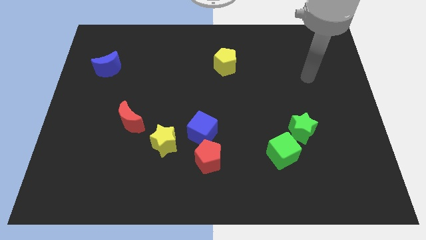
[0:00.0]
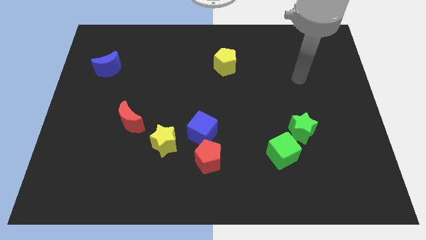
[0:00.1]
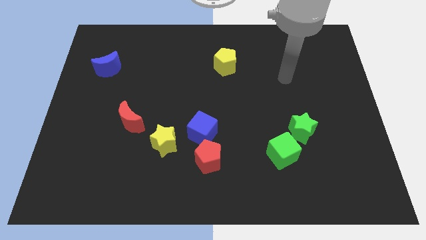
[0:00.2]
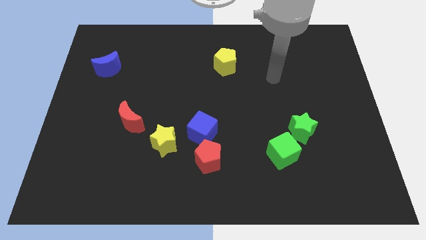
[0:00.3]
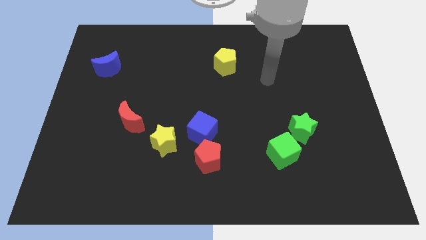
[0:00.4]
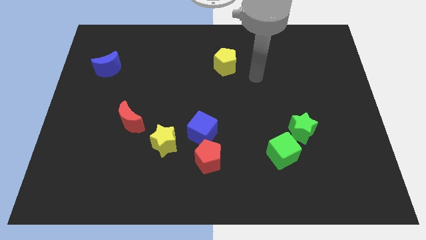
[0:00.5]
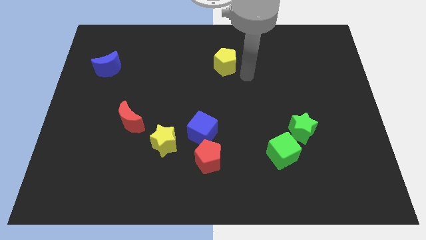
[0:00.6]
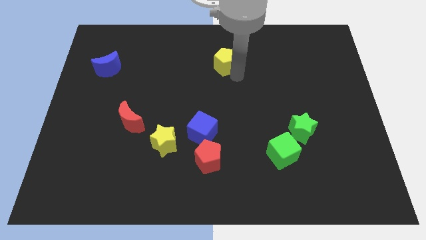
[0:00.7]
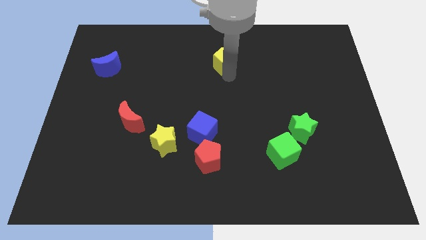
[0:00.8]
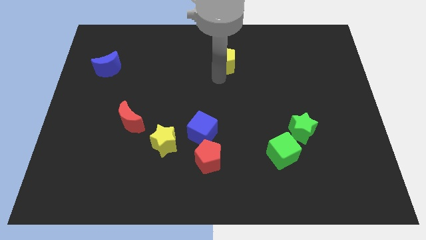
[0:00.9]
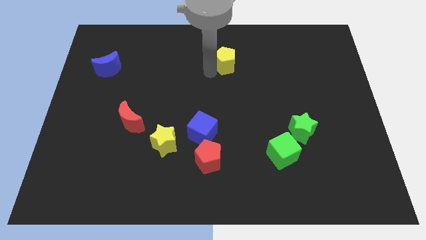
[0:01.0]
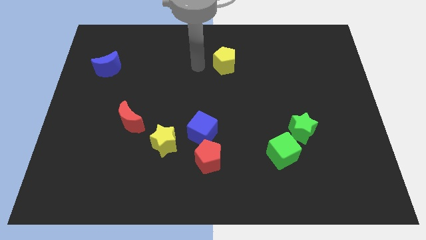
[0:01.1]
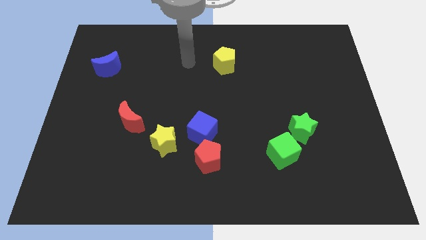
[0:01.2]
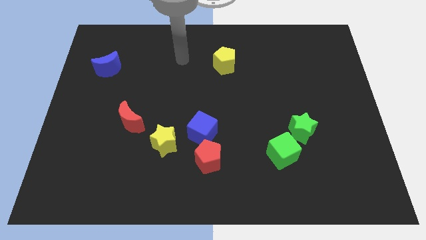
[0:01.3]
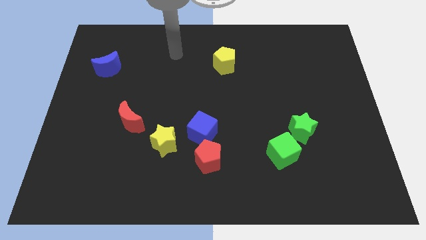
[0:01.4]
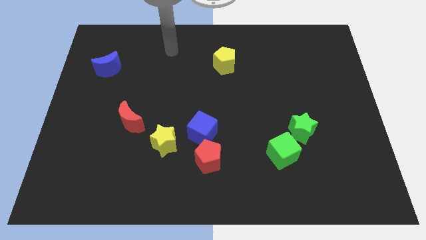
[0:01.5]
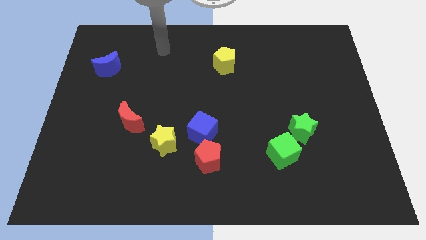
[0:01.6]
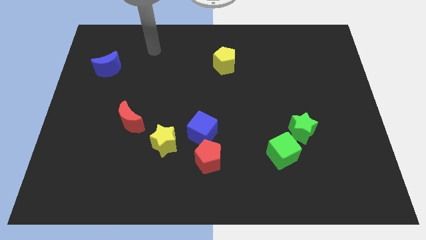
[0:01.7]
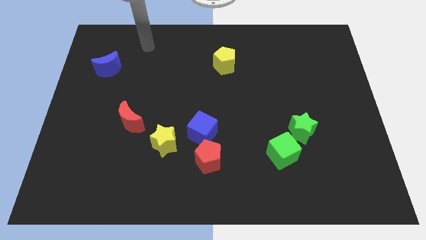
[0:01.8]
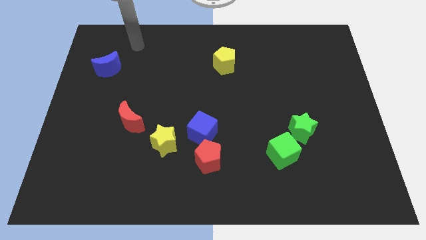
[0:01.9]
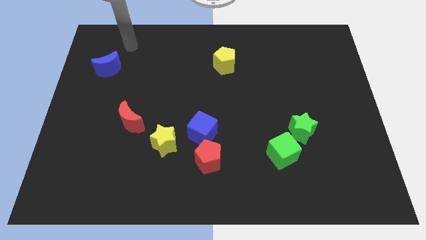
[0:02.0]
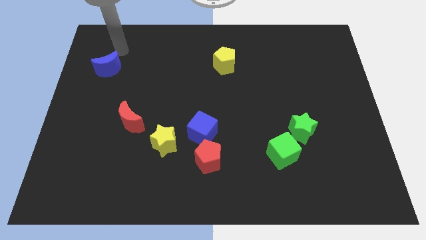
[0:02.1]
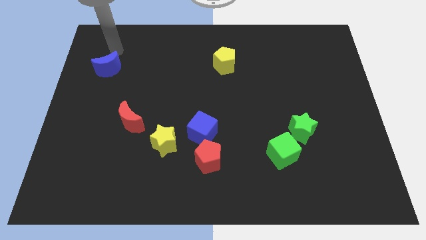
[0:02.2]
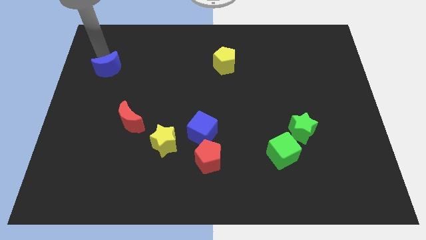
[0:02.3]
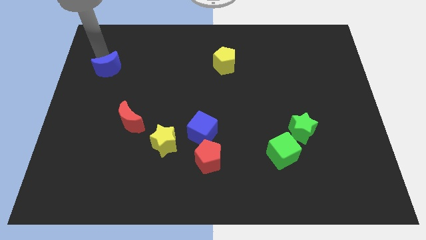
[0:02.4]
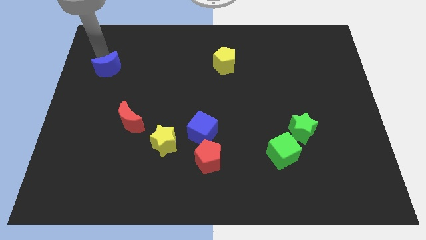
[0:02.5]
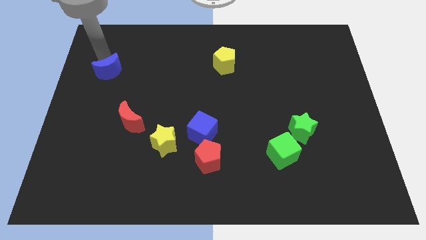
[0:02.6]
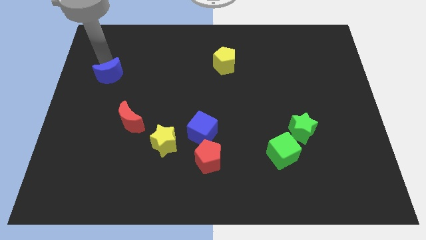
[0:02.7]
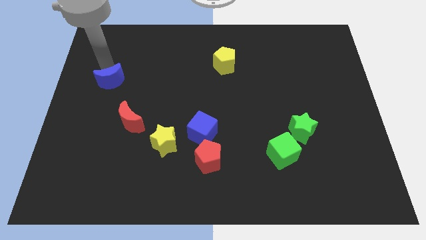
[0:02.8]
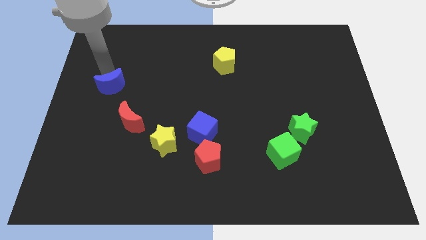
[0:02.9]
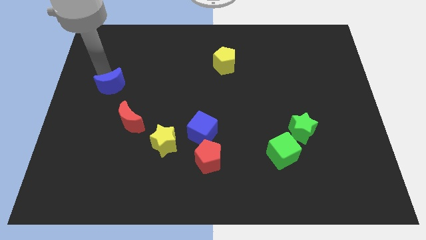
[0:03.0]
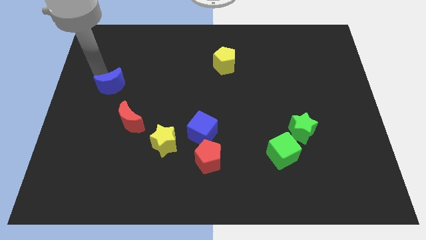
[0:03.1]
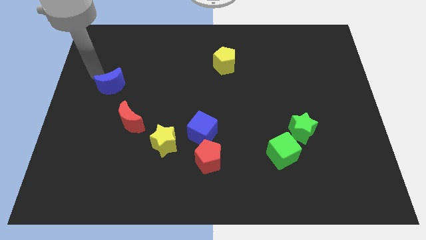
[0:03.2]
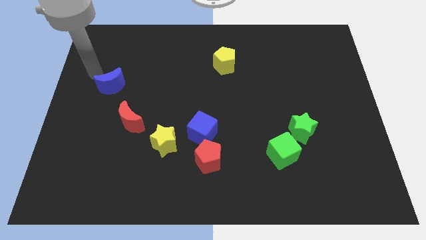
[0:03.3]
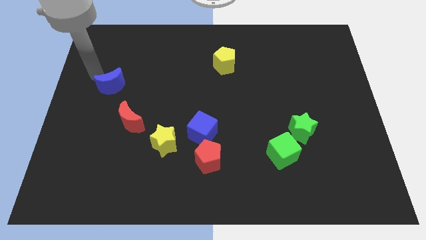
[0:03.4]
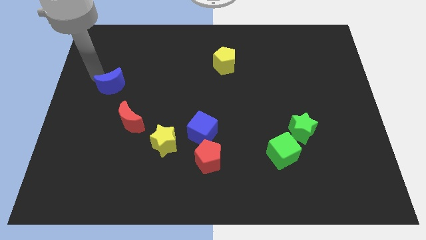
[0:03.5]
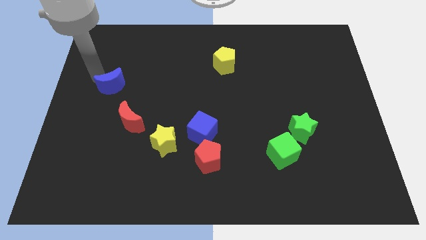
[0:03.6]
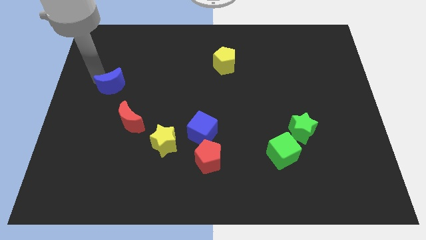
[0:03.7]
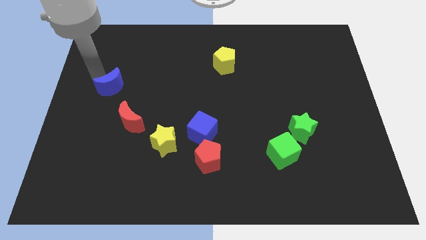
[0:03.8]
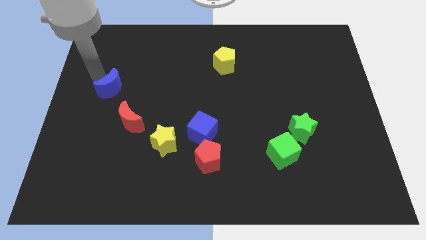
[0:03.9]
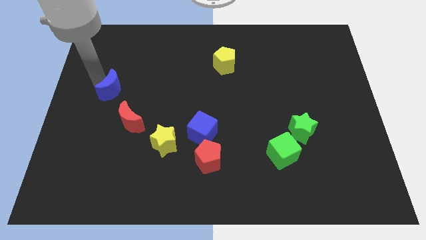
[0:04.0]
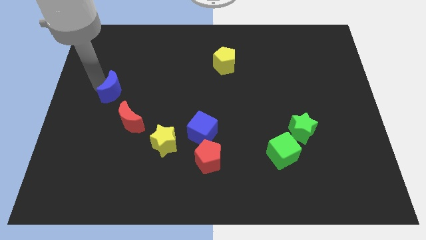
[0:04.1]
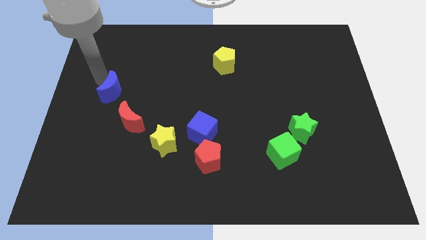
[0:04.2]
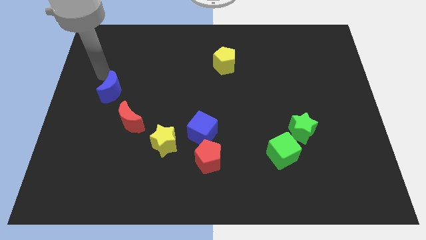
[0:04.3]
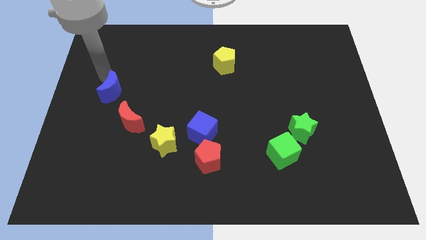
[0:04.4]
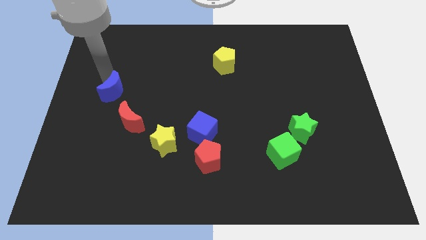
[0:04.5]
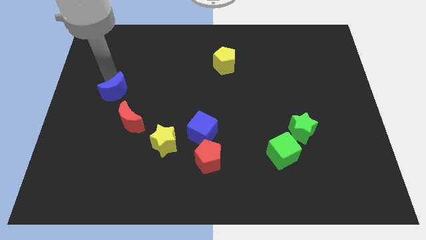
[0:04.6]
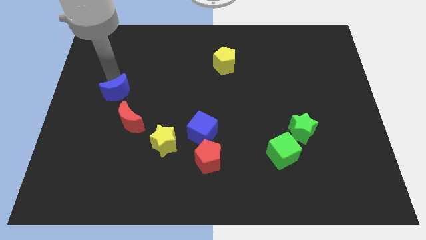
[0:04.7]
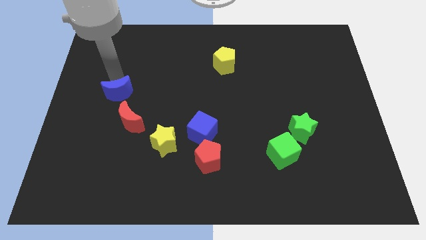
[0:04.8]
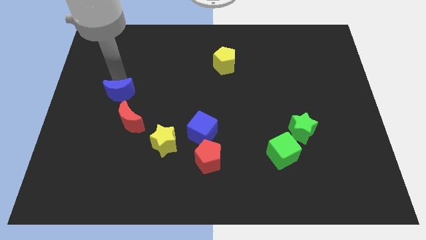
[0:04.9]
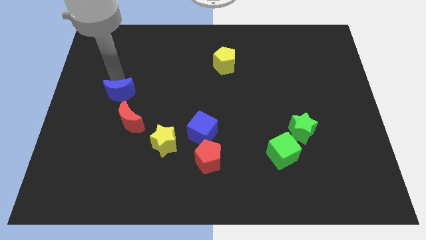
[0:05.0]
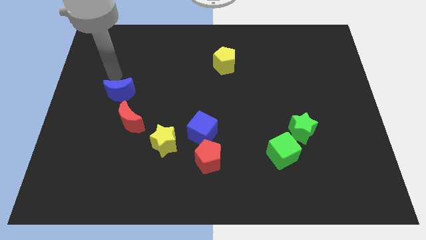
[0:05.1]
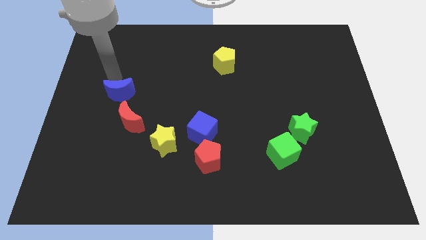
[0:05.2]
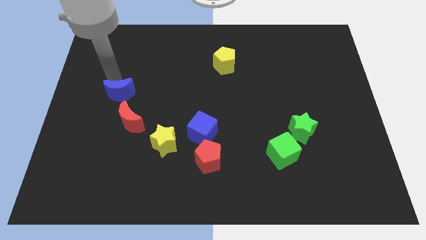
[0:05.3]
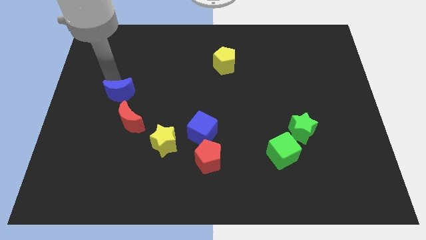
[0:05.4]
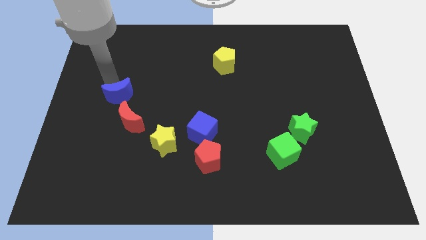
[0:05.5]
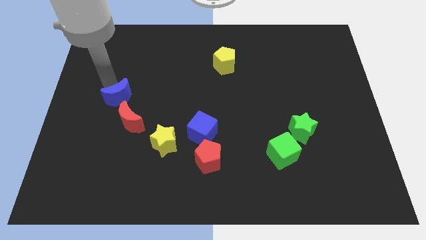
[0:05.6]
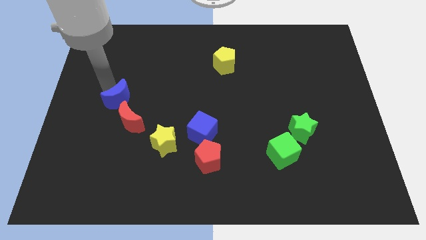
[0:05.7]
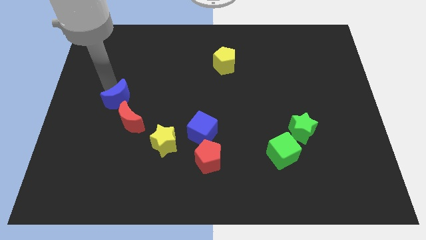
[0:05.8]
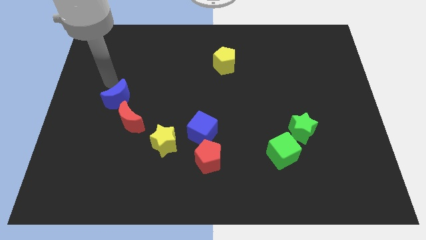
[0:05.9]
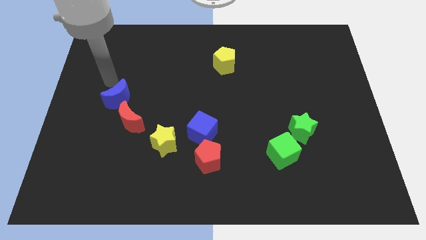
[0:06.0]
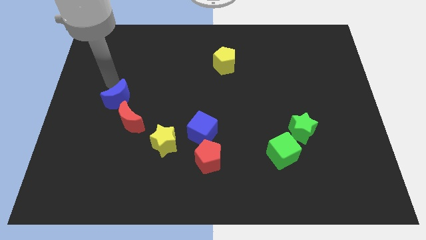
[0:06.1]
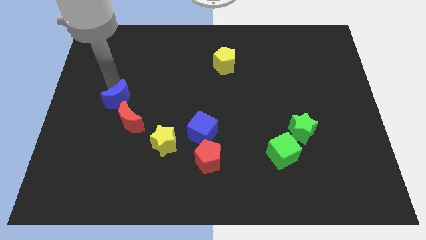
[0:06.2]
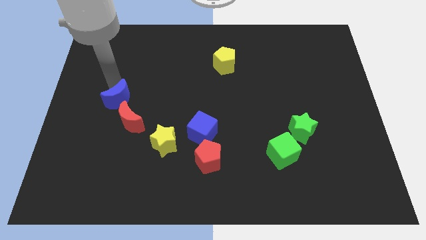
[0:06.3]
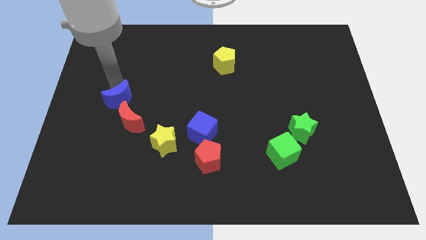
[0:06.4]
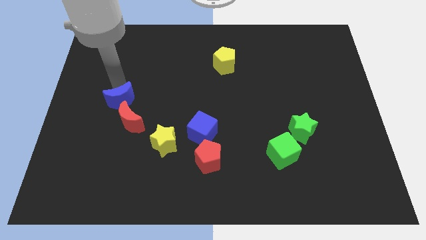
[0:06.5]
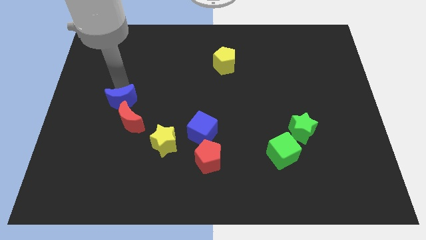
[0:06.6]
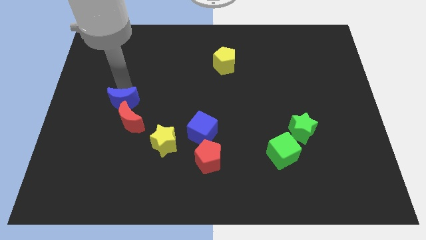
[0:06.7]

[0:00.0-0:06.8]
push the blue moon towards the red moon

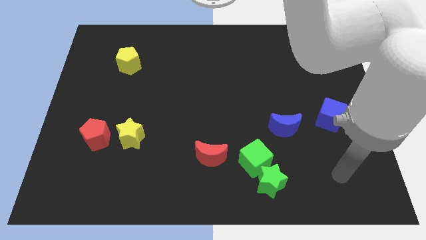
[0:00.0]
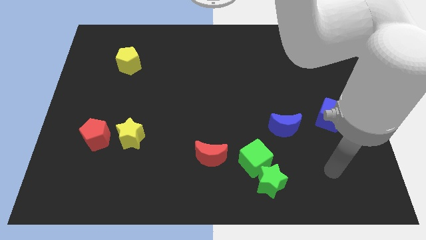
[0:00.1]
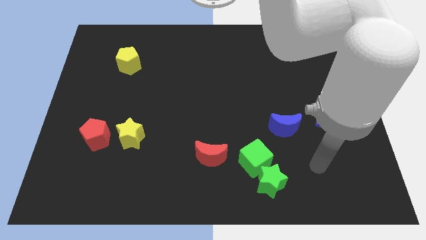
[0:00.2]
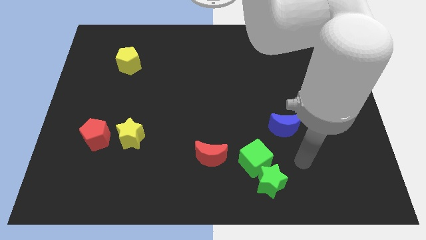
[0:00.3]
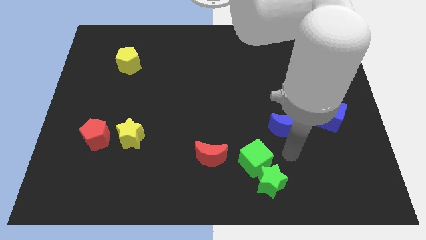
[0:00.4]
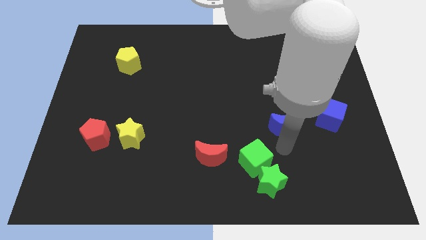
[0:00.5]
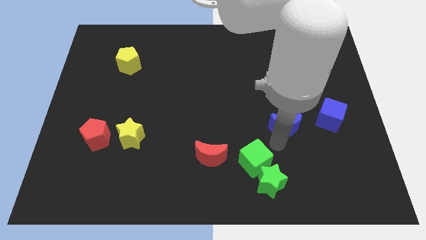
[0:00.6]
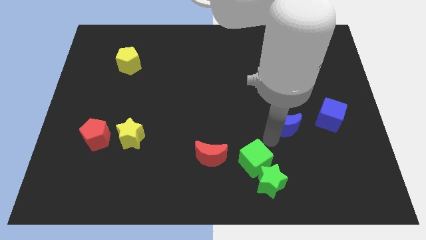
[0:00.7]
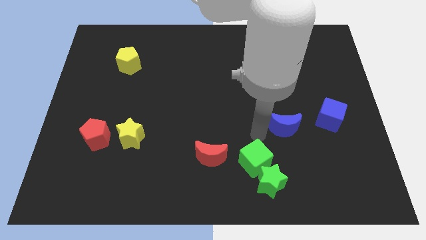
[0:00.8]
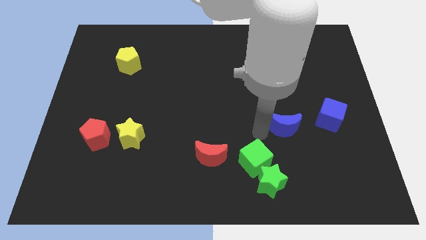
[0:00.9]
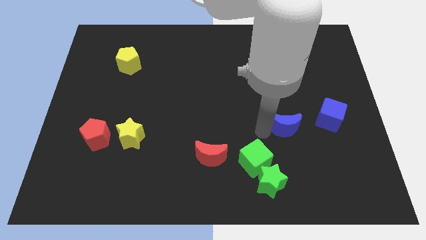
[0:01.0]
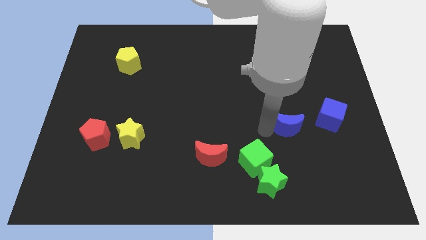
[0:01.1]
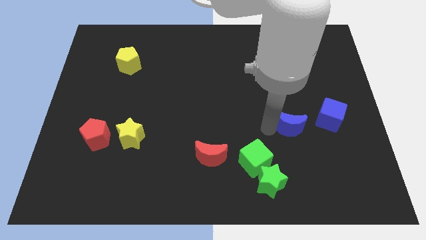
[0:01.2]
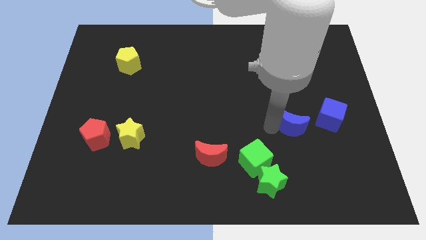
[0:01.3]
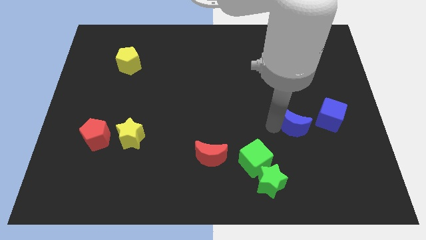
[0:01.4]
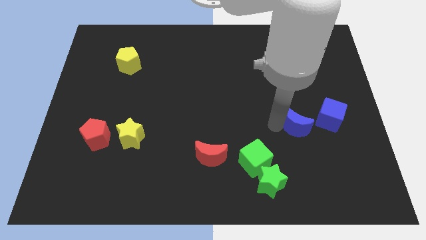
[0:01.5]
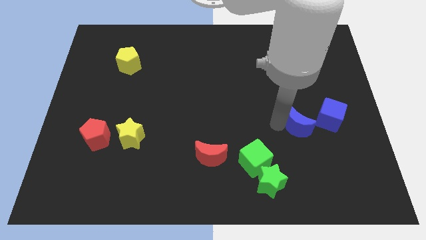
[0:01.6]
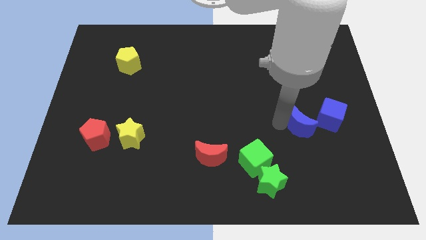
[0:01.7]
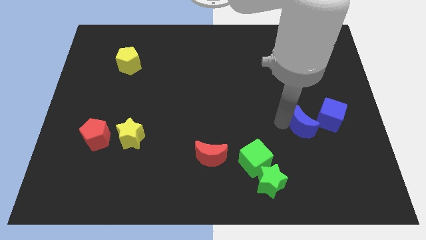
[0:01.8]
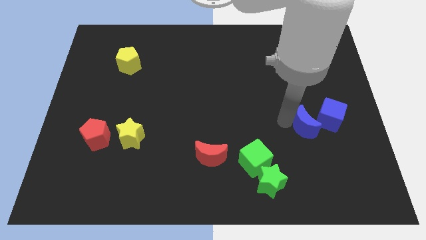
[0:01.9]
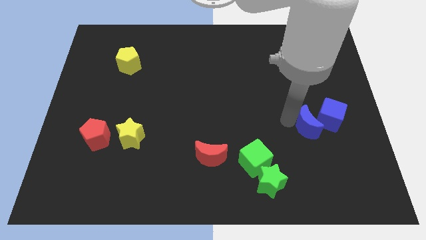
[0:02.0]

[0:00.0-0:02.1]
put the blue moon to the blue cube
